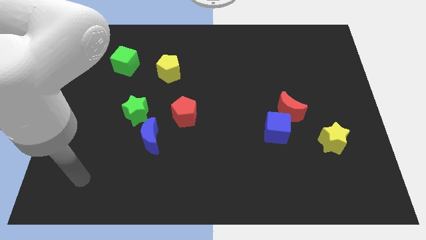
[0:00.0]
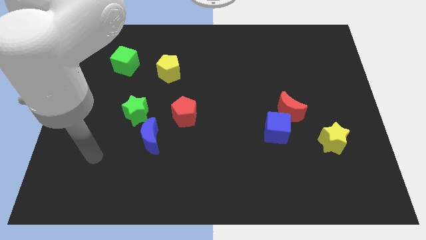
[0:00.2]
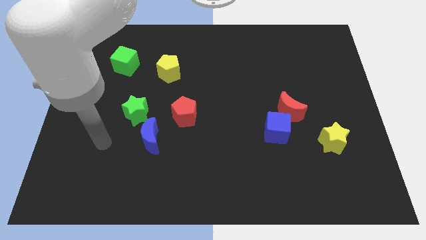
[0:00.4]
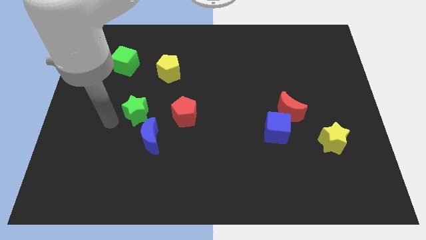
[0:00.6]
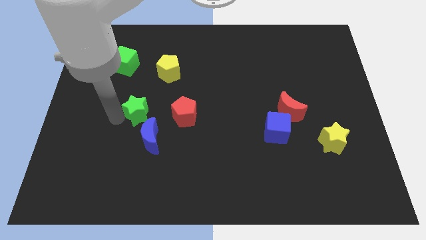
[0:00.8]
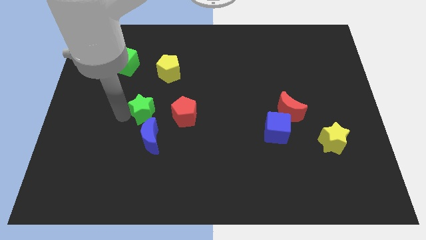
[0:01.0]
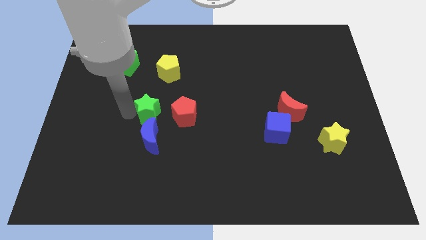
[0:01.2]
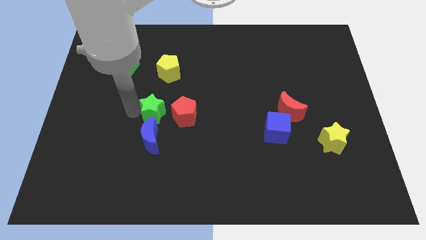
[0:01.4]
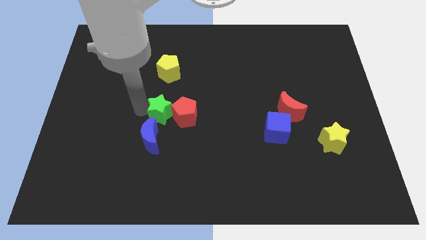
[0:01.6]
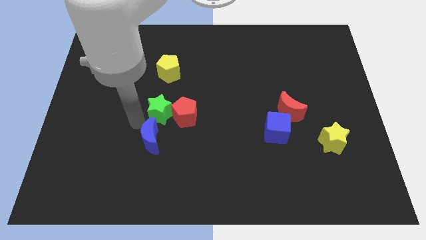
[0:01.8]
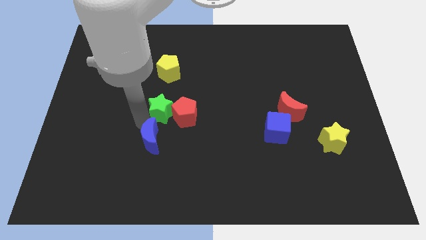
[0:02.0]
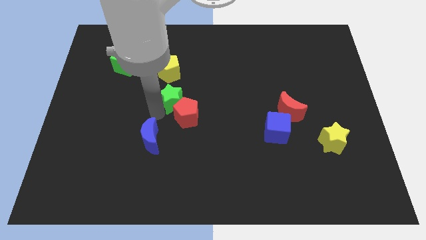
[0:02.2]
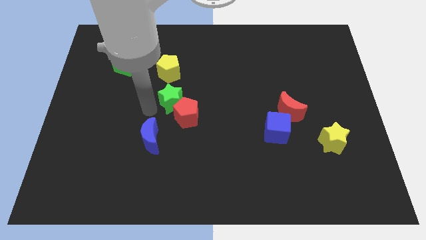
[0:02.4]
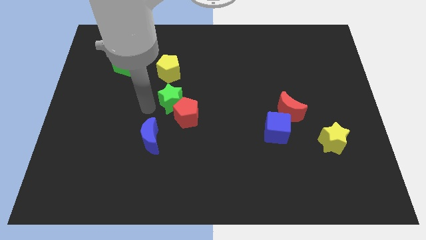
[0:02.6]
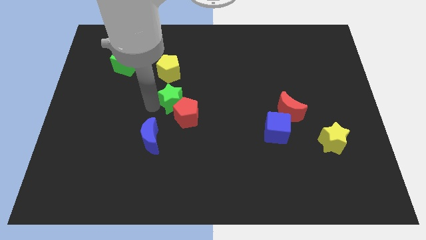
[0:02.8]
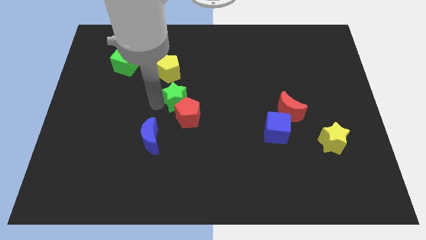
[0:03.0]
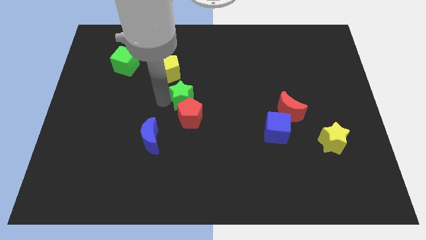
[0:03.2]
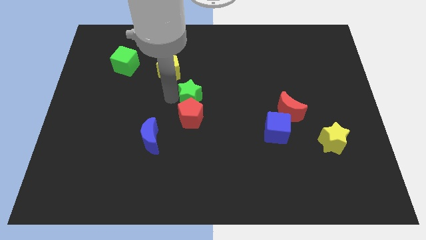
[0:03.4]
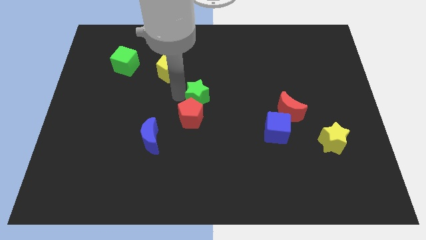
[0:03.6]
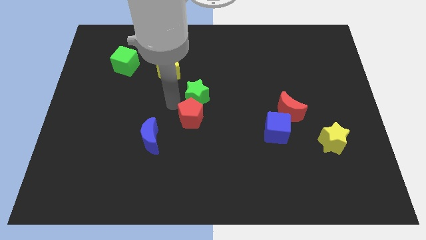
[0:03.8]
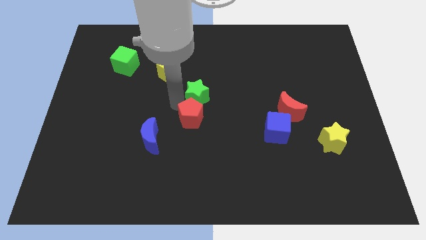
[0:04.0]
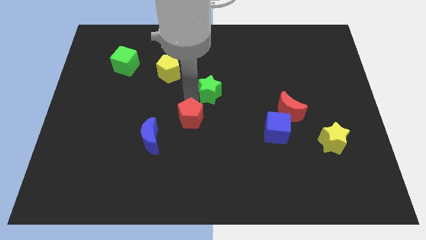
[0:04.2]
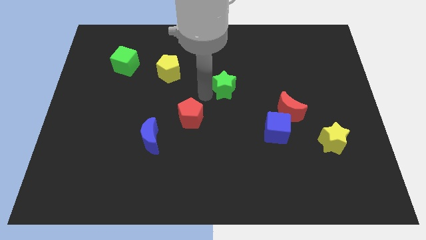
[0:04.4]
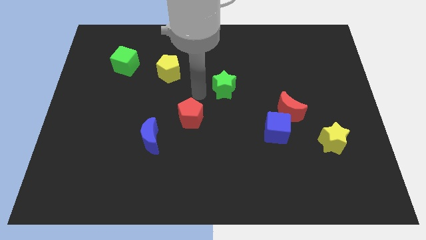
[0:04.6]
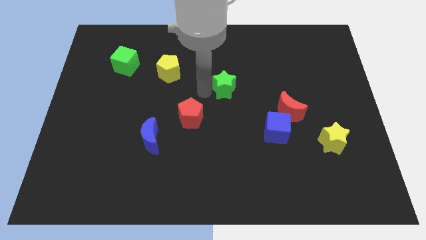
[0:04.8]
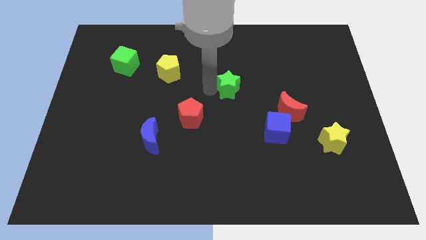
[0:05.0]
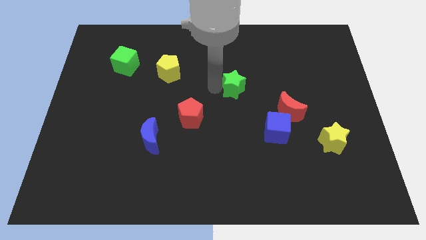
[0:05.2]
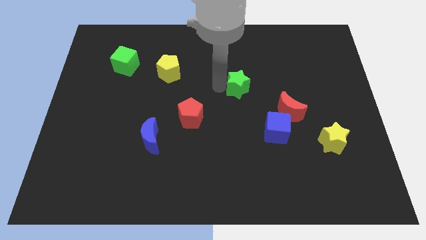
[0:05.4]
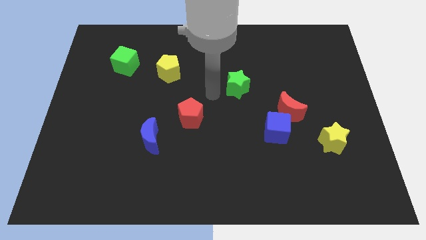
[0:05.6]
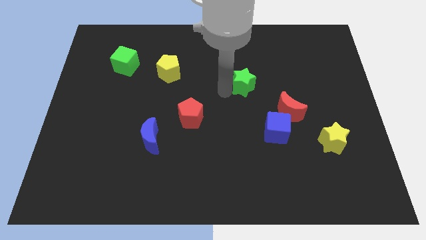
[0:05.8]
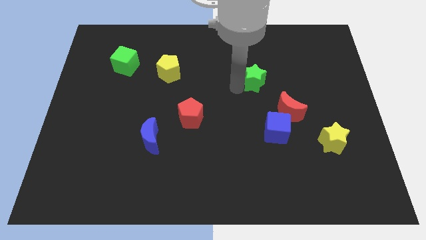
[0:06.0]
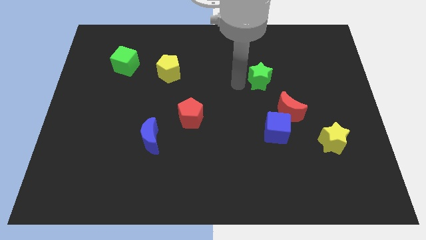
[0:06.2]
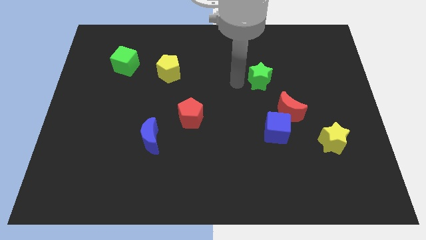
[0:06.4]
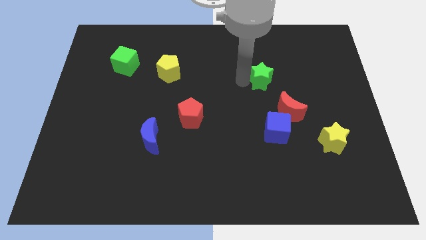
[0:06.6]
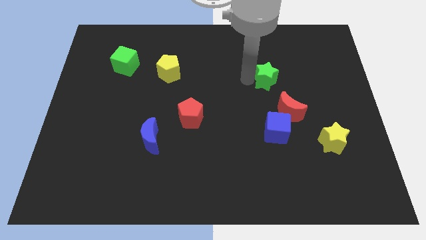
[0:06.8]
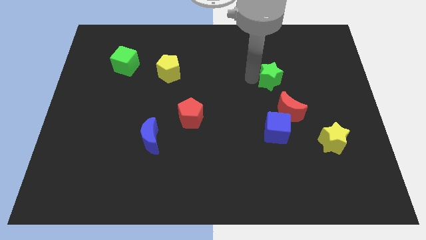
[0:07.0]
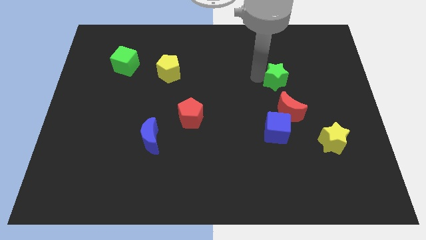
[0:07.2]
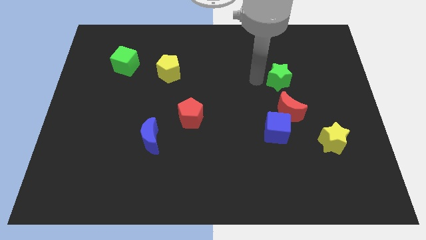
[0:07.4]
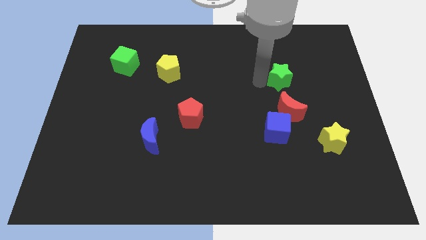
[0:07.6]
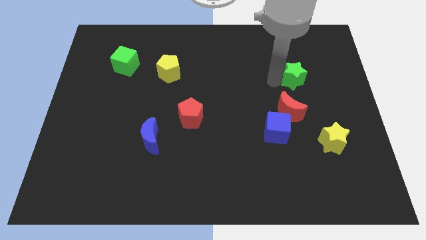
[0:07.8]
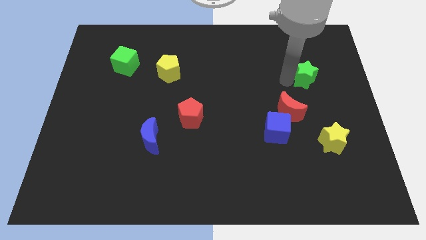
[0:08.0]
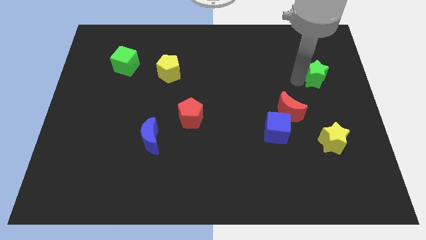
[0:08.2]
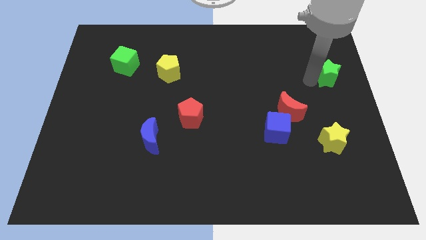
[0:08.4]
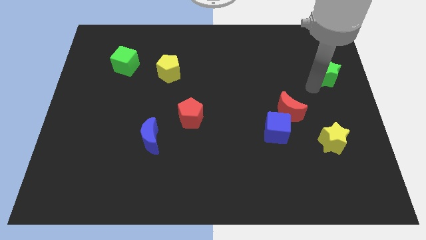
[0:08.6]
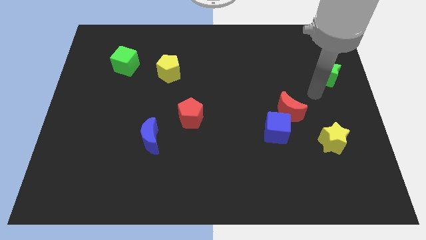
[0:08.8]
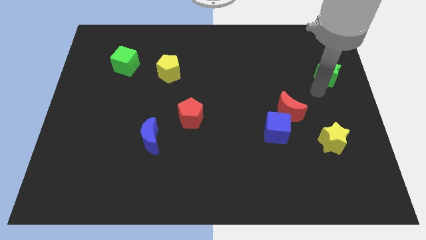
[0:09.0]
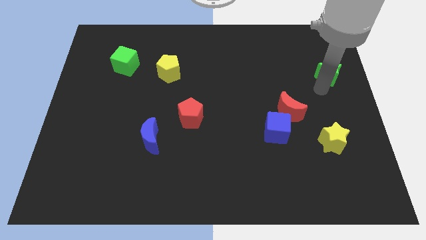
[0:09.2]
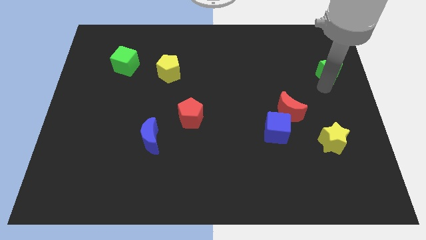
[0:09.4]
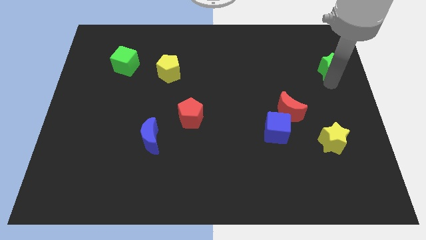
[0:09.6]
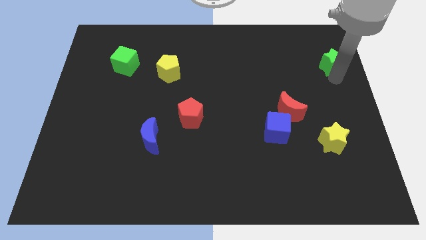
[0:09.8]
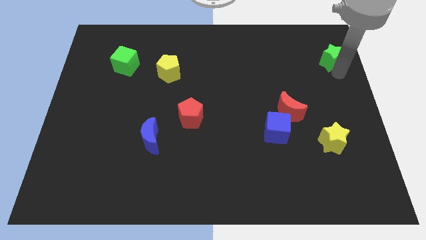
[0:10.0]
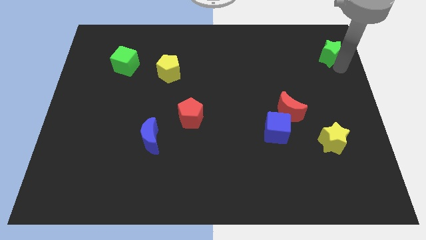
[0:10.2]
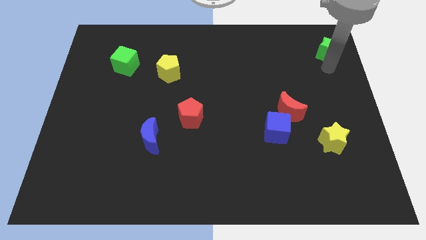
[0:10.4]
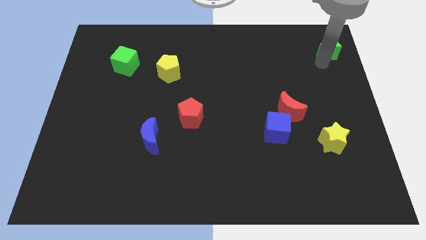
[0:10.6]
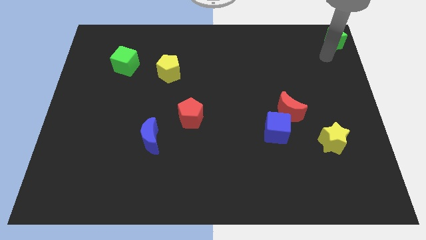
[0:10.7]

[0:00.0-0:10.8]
slide the green star to the upper right corner

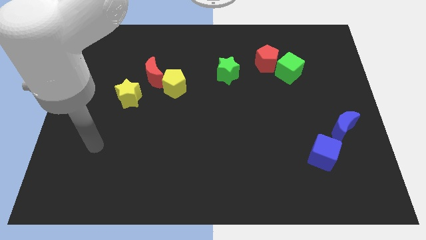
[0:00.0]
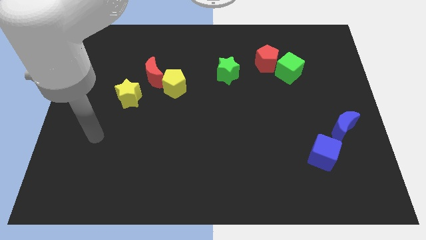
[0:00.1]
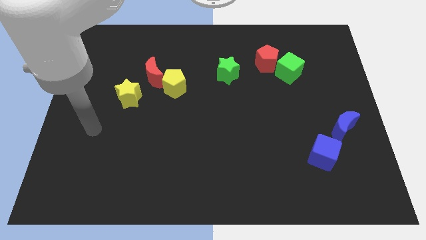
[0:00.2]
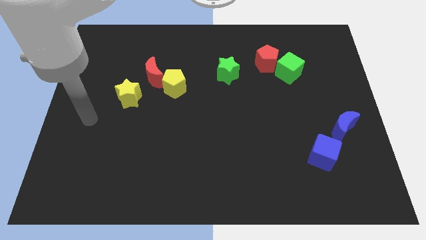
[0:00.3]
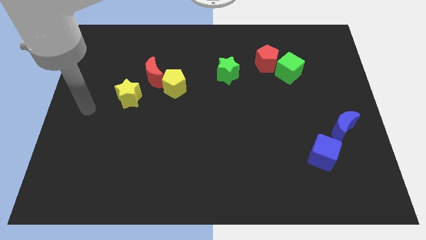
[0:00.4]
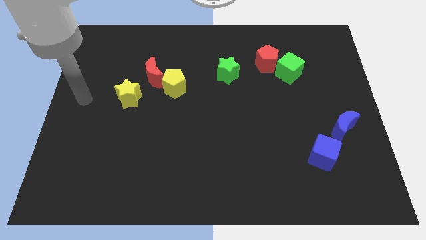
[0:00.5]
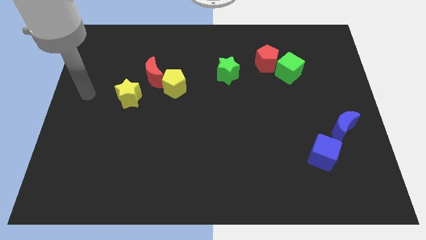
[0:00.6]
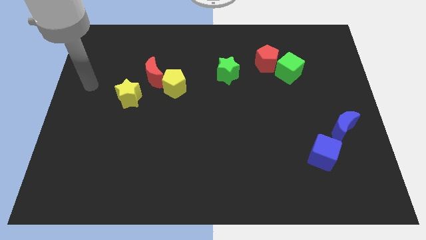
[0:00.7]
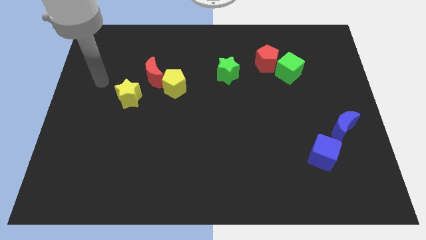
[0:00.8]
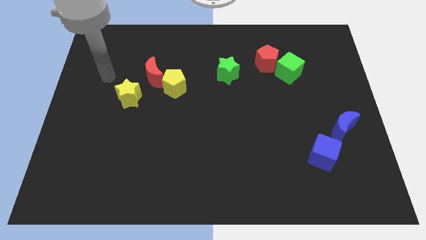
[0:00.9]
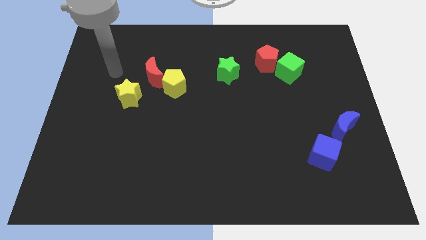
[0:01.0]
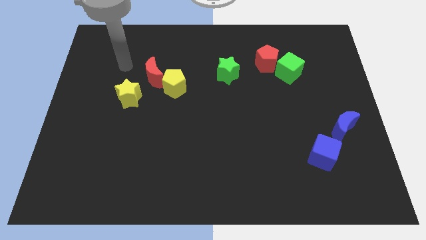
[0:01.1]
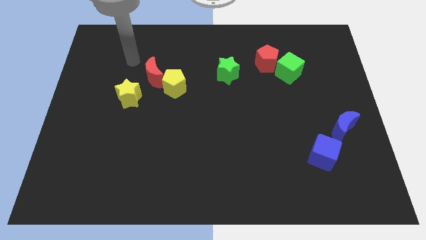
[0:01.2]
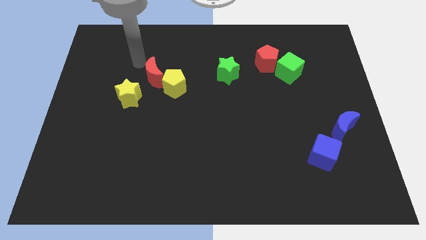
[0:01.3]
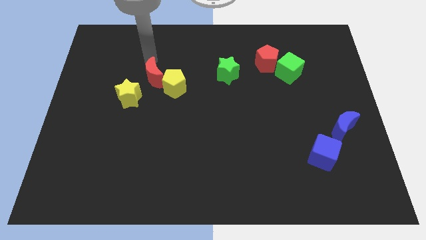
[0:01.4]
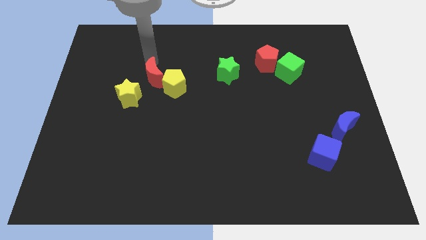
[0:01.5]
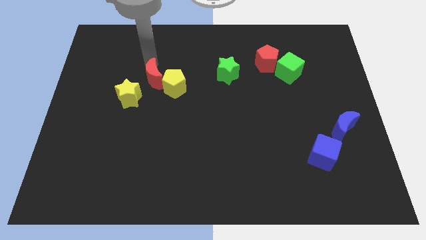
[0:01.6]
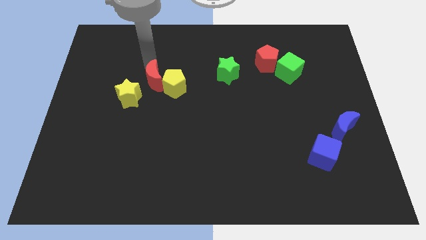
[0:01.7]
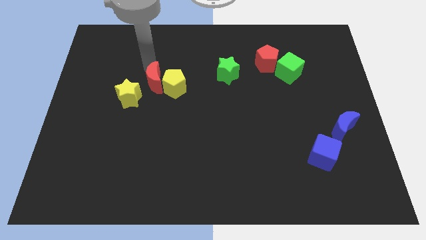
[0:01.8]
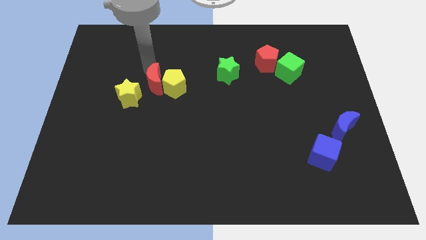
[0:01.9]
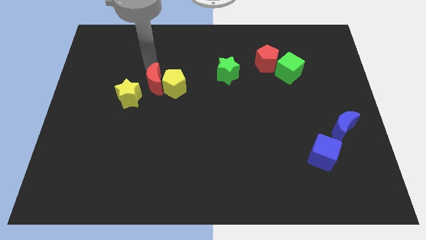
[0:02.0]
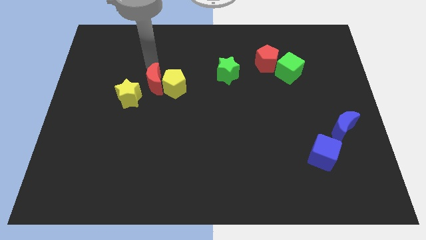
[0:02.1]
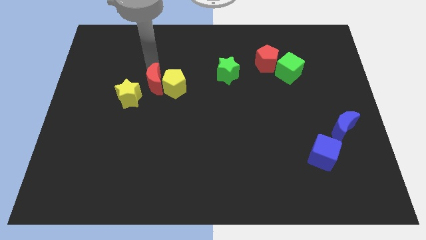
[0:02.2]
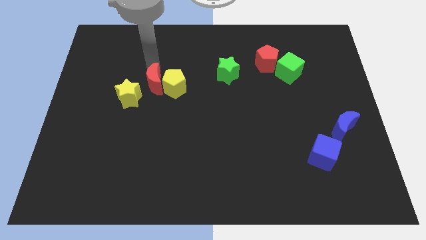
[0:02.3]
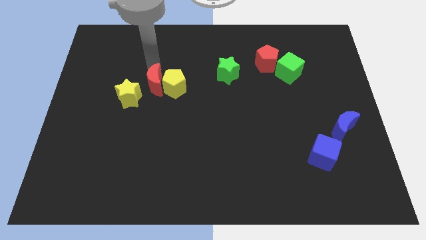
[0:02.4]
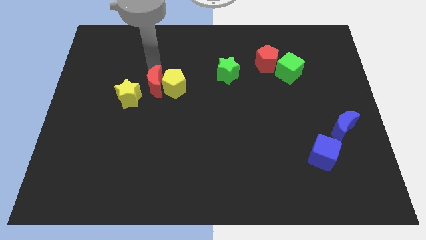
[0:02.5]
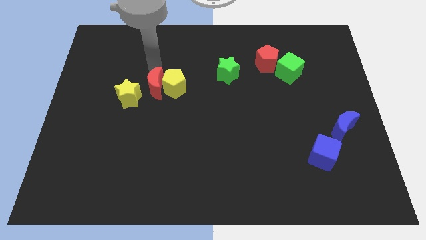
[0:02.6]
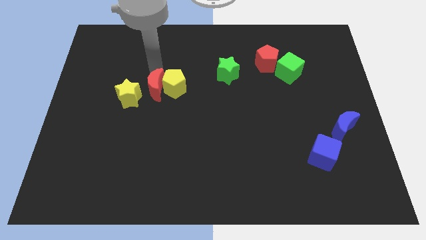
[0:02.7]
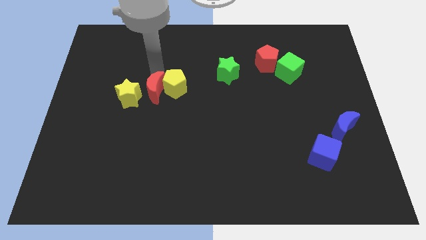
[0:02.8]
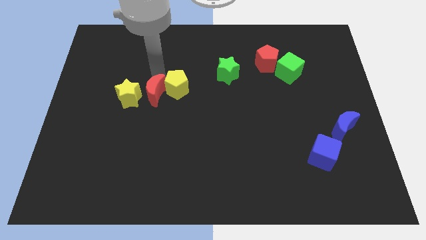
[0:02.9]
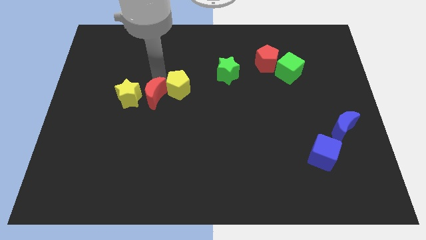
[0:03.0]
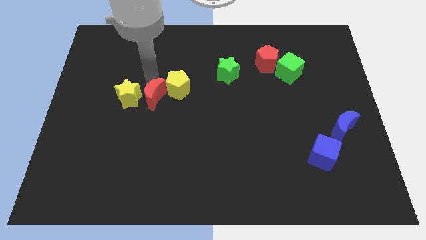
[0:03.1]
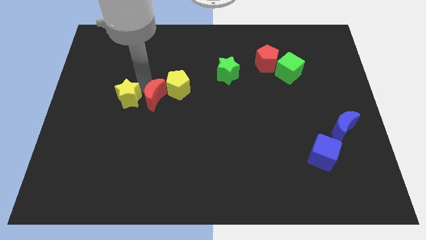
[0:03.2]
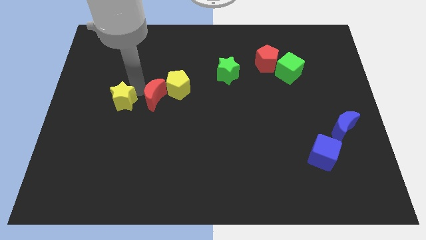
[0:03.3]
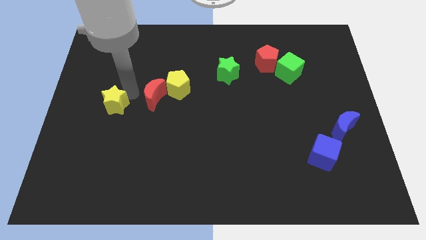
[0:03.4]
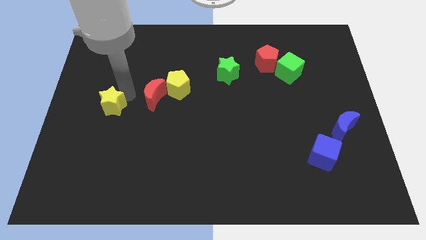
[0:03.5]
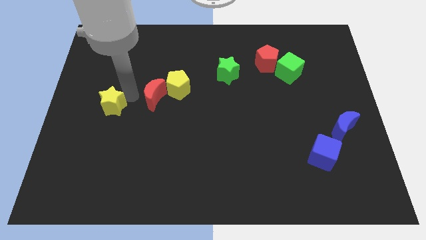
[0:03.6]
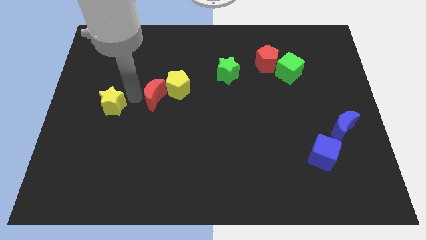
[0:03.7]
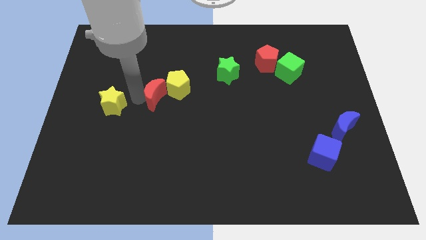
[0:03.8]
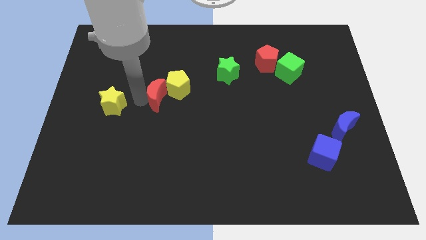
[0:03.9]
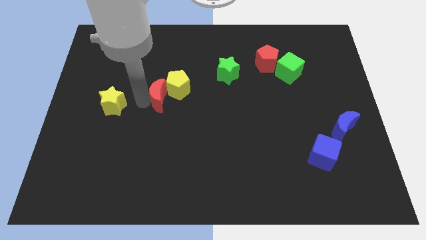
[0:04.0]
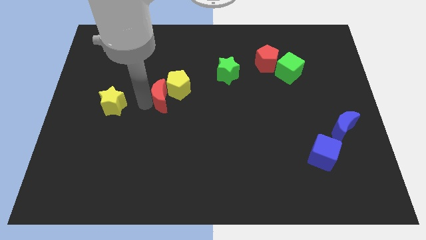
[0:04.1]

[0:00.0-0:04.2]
put the red moon to the center
